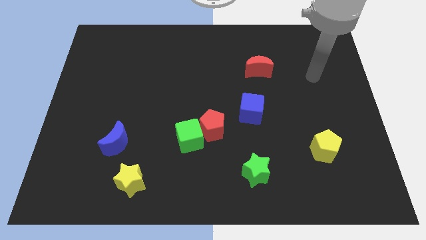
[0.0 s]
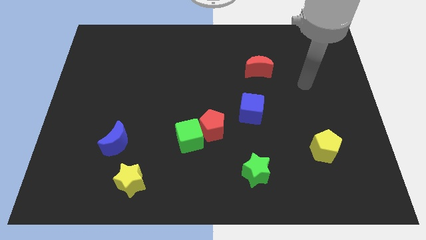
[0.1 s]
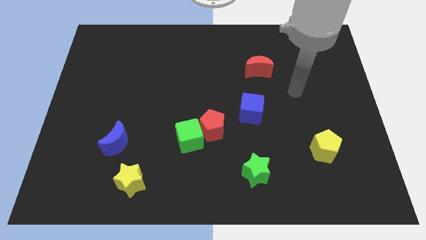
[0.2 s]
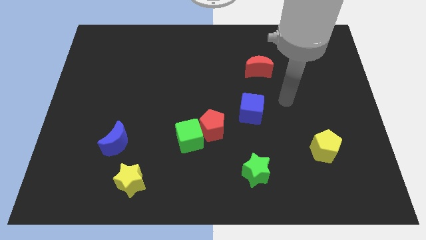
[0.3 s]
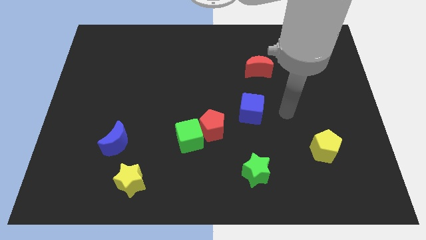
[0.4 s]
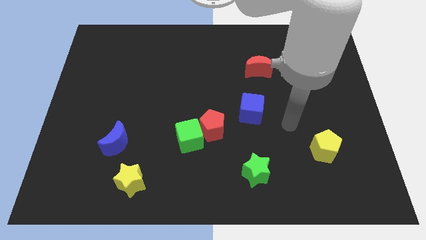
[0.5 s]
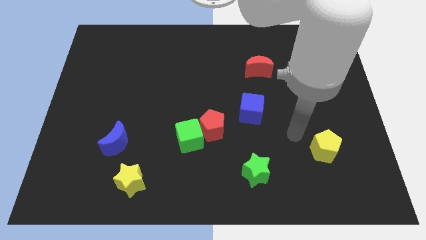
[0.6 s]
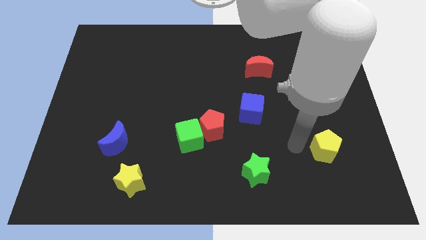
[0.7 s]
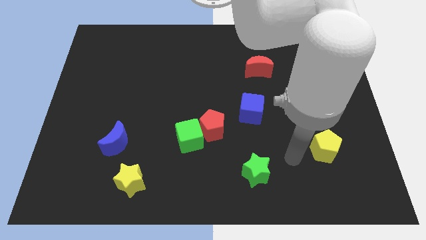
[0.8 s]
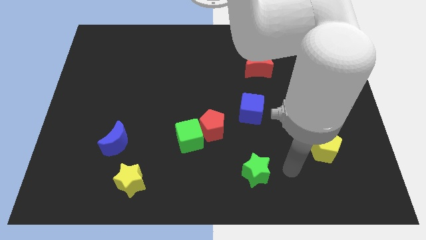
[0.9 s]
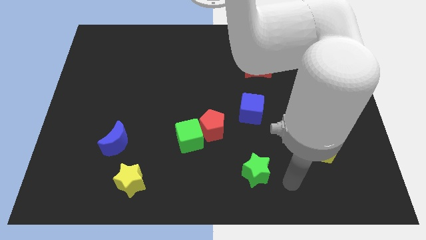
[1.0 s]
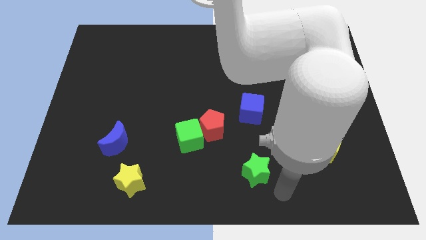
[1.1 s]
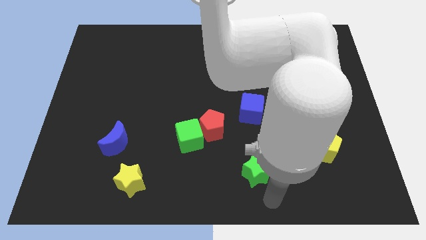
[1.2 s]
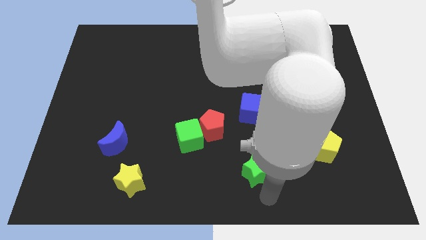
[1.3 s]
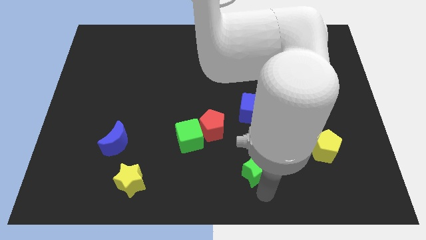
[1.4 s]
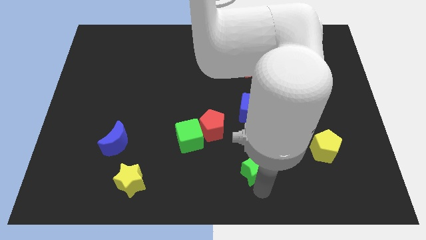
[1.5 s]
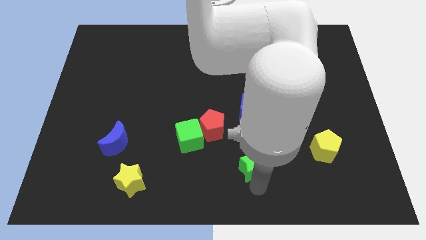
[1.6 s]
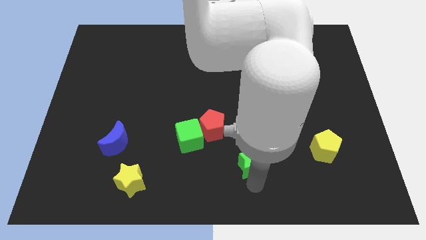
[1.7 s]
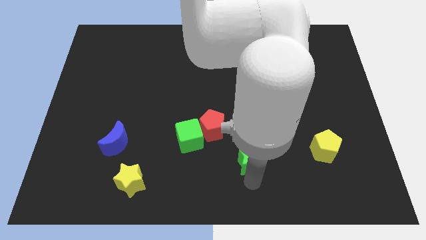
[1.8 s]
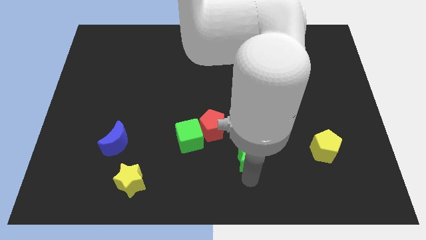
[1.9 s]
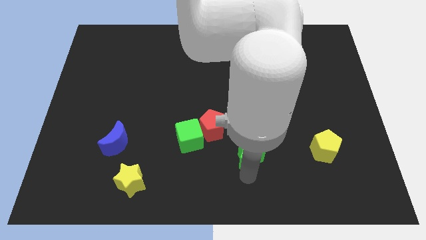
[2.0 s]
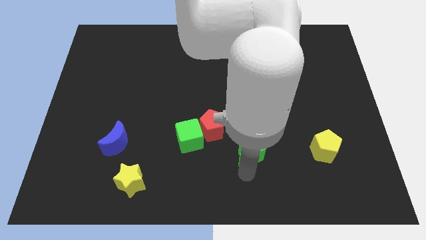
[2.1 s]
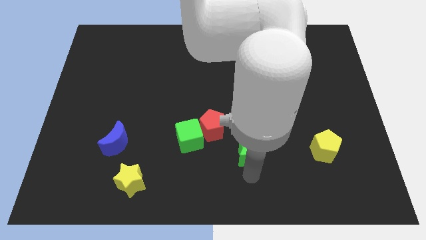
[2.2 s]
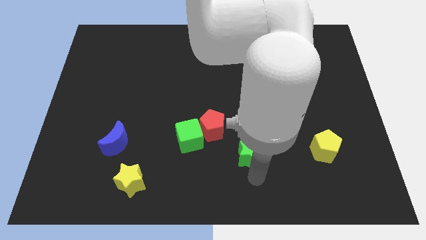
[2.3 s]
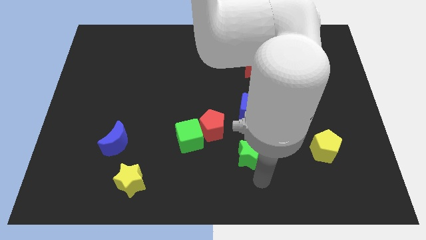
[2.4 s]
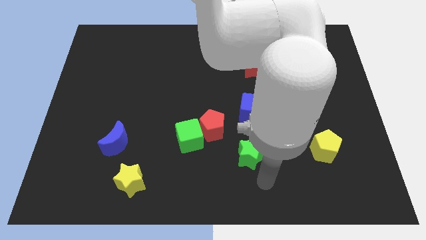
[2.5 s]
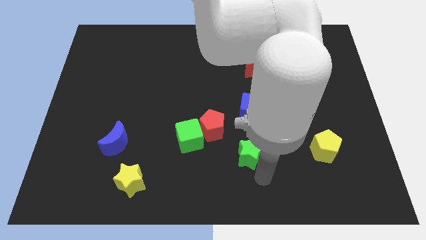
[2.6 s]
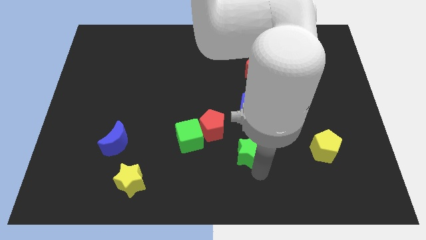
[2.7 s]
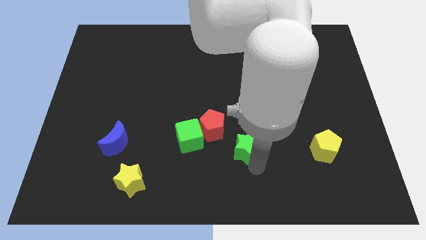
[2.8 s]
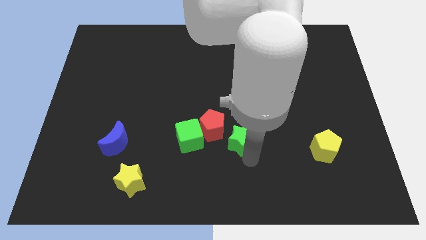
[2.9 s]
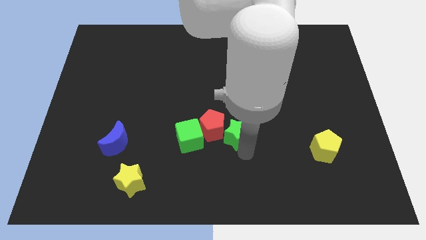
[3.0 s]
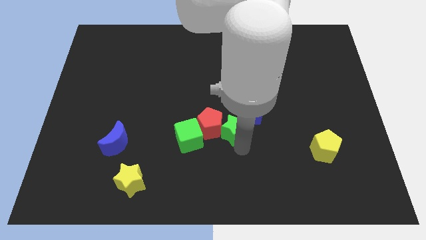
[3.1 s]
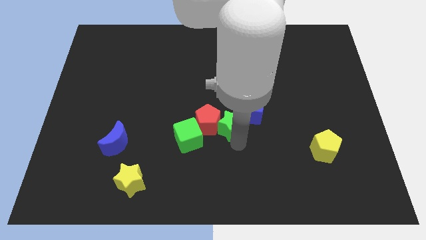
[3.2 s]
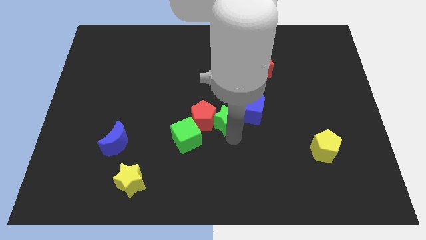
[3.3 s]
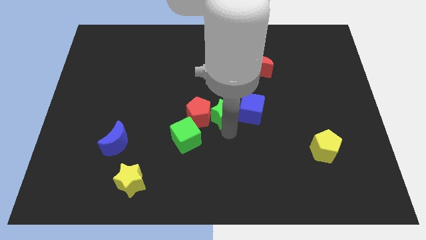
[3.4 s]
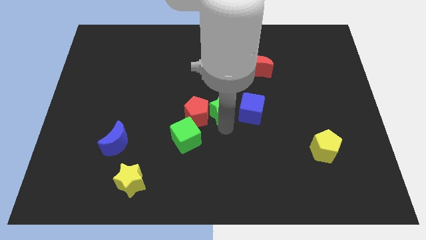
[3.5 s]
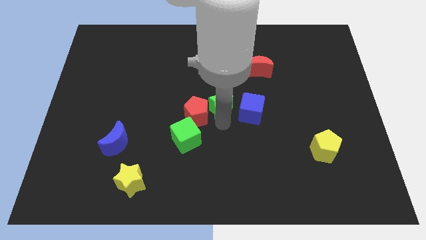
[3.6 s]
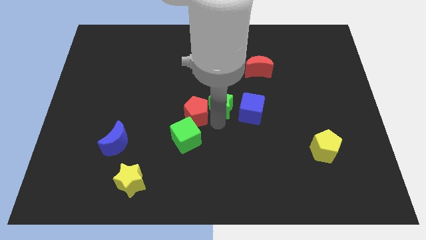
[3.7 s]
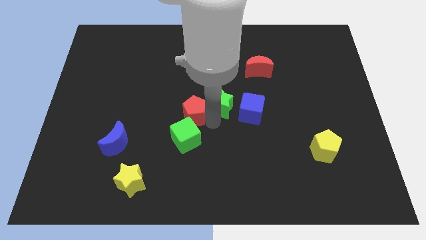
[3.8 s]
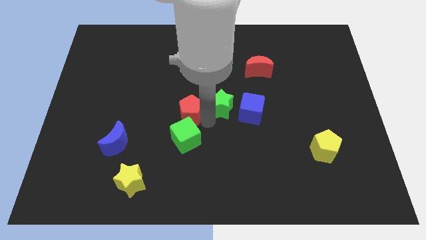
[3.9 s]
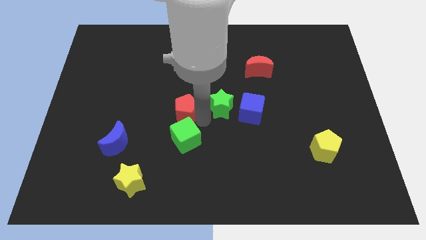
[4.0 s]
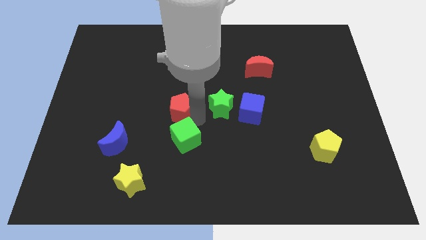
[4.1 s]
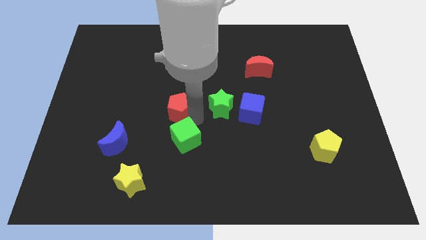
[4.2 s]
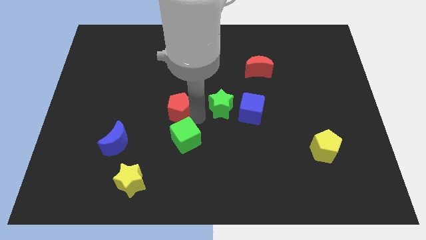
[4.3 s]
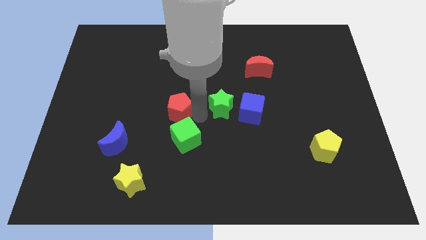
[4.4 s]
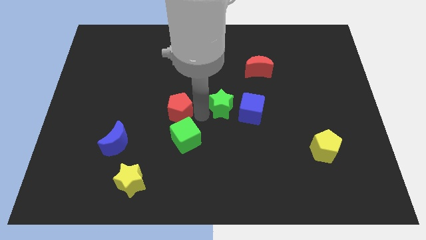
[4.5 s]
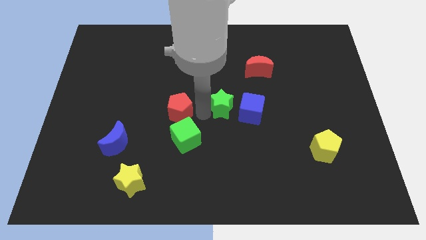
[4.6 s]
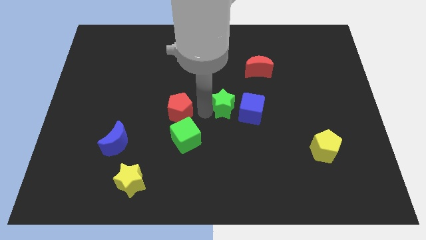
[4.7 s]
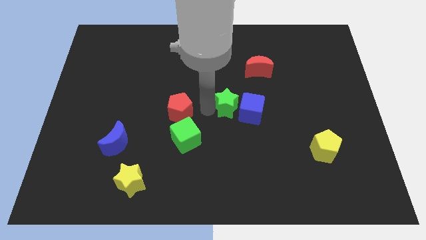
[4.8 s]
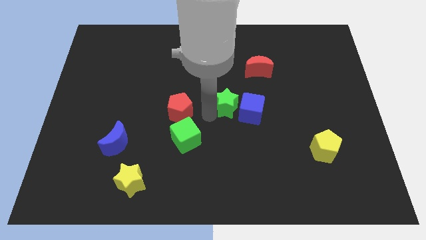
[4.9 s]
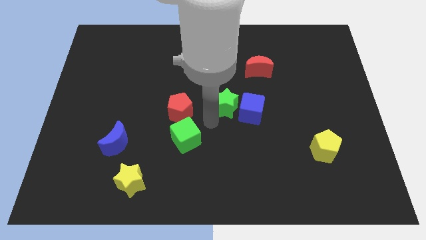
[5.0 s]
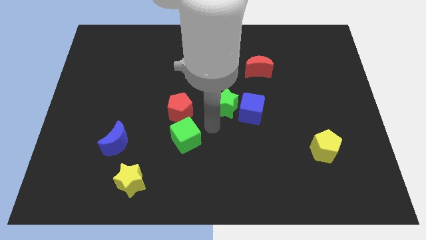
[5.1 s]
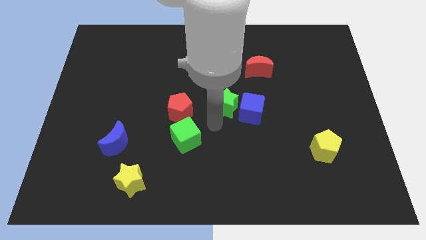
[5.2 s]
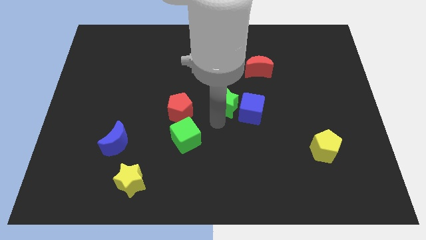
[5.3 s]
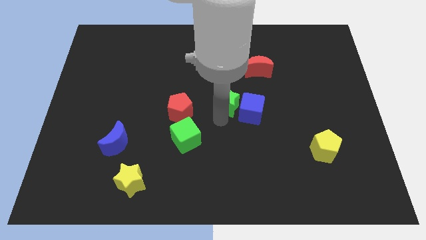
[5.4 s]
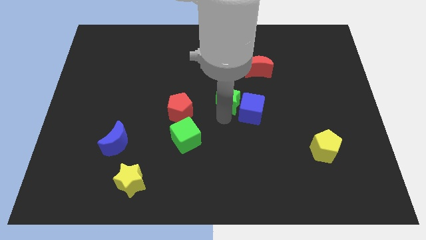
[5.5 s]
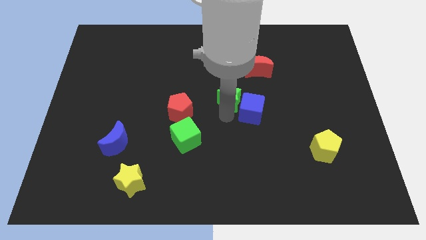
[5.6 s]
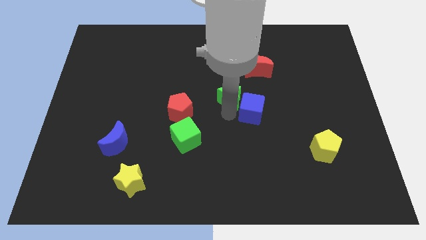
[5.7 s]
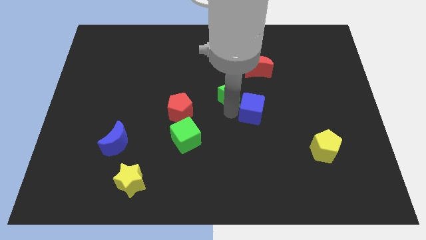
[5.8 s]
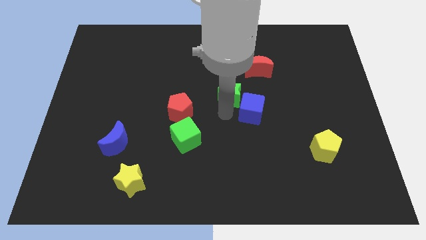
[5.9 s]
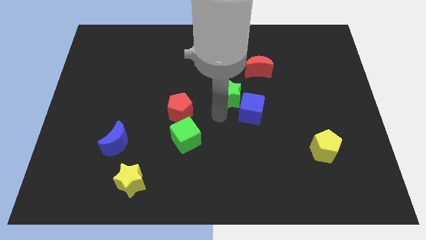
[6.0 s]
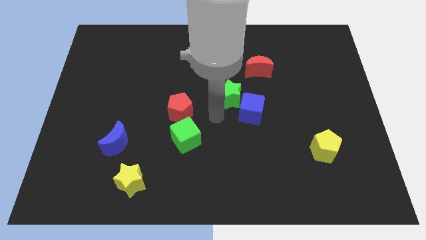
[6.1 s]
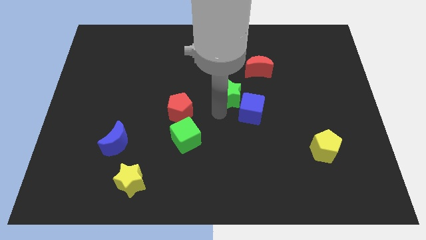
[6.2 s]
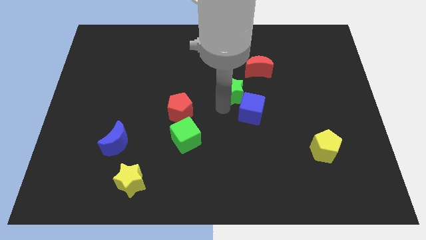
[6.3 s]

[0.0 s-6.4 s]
slide the green star upwards

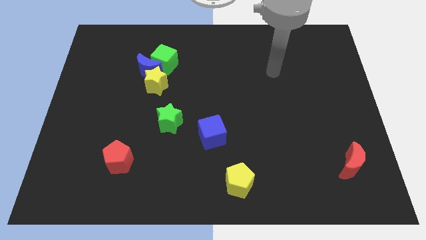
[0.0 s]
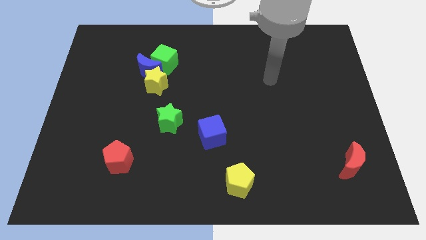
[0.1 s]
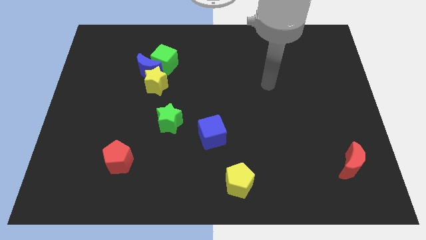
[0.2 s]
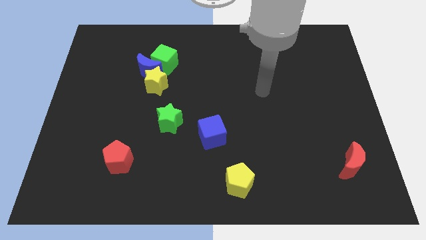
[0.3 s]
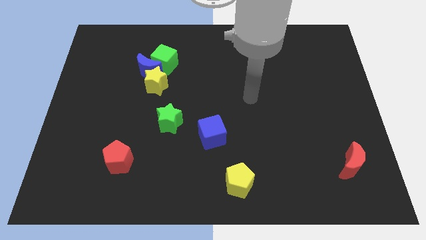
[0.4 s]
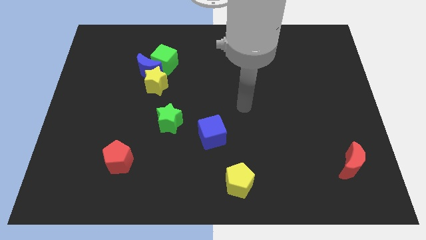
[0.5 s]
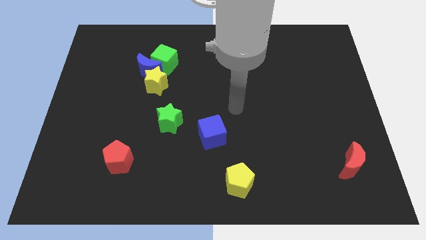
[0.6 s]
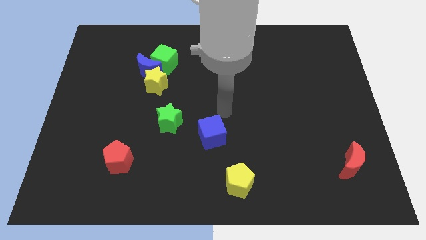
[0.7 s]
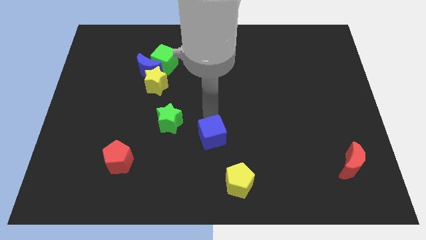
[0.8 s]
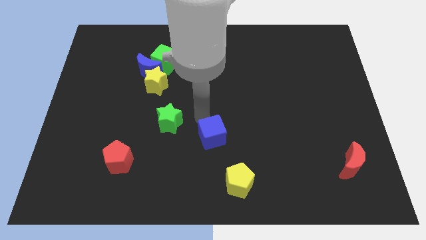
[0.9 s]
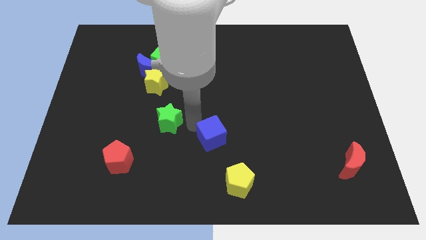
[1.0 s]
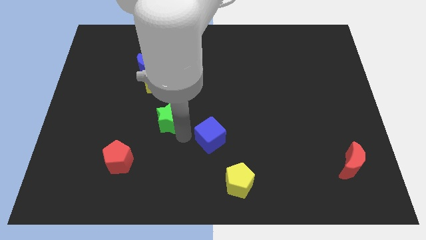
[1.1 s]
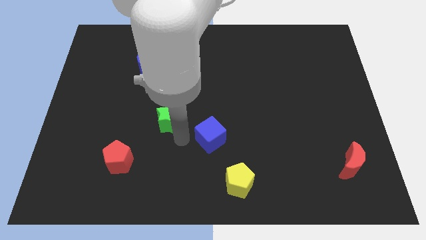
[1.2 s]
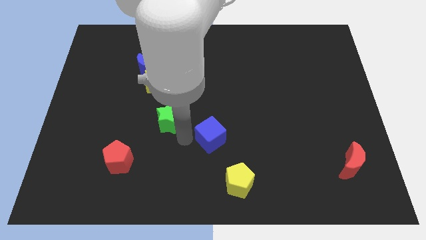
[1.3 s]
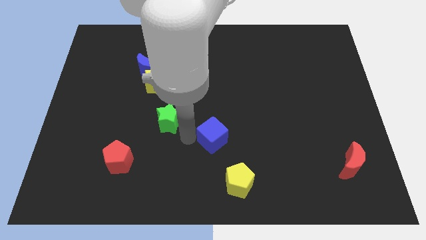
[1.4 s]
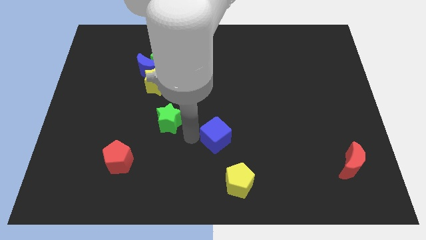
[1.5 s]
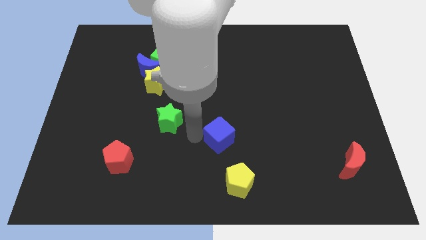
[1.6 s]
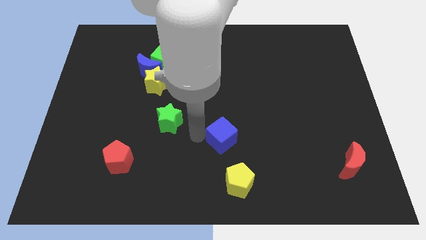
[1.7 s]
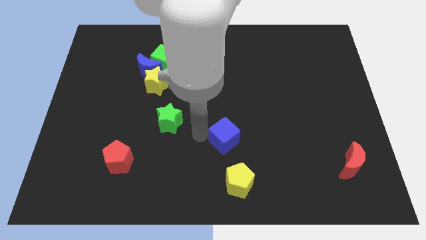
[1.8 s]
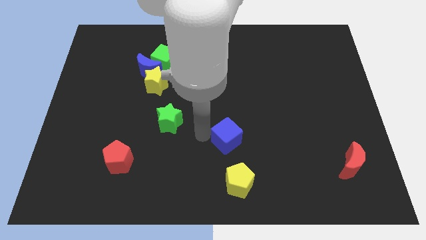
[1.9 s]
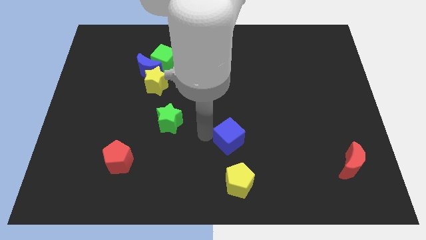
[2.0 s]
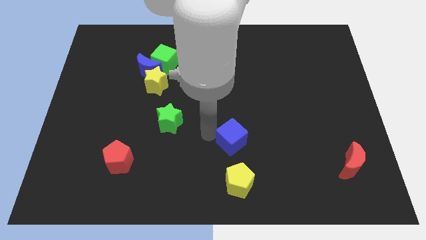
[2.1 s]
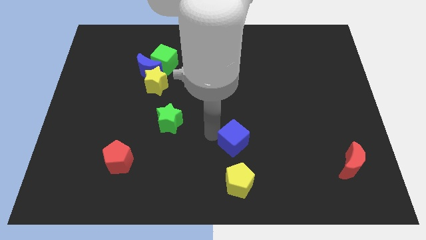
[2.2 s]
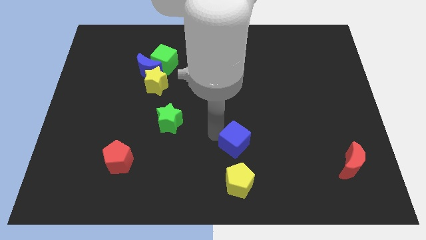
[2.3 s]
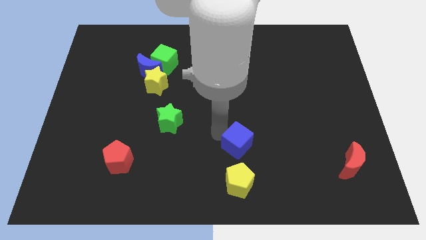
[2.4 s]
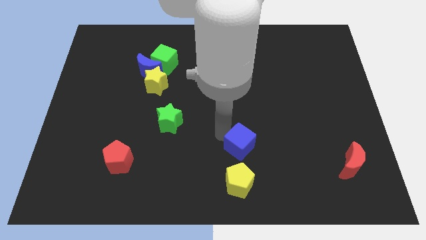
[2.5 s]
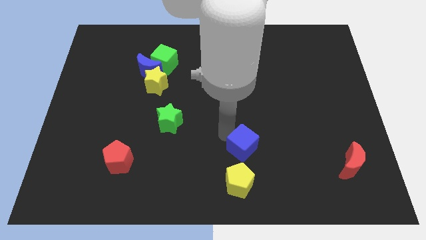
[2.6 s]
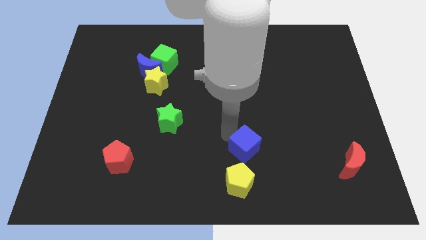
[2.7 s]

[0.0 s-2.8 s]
slightly slide the blue cube right
